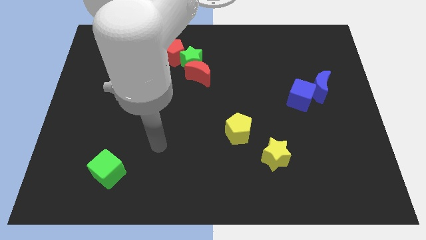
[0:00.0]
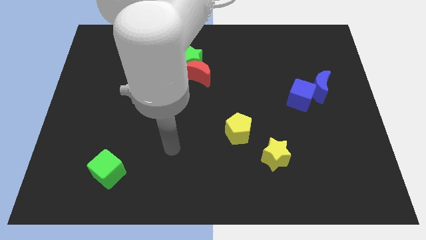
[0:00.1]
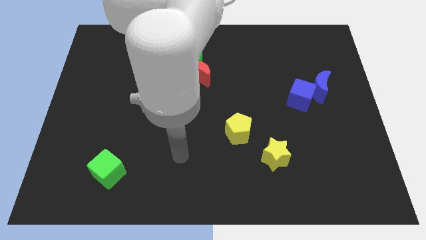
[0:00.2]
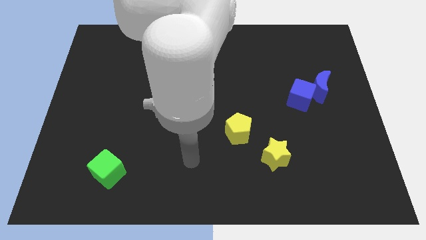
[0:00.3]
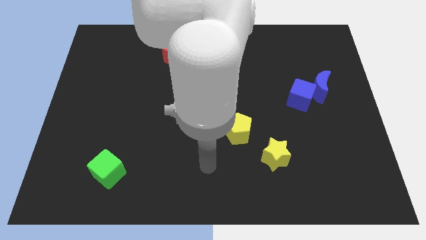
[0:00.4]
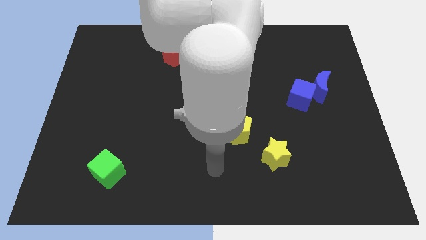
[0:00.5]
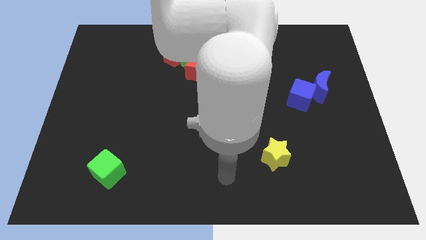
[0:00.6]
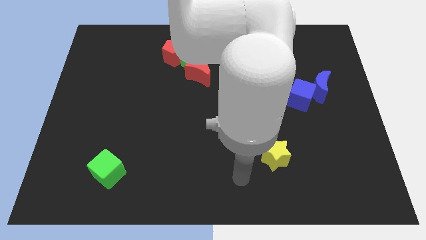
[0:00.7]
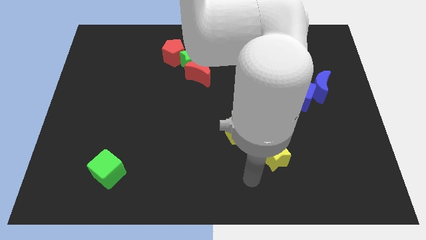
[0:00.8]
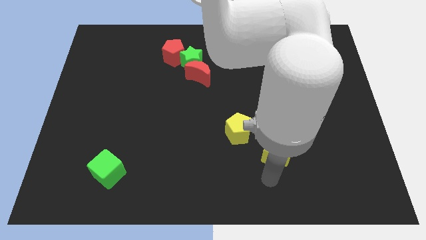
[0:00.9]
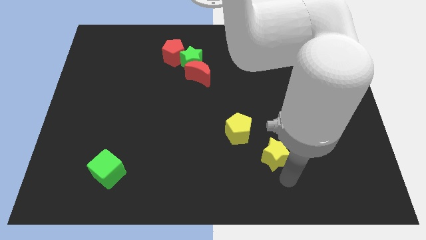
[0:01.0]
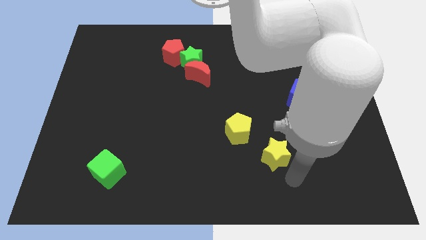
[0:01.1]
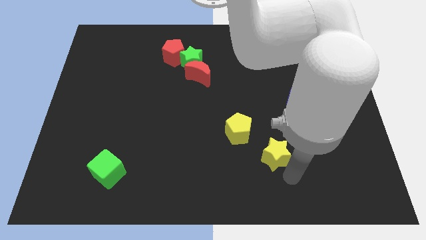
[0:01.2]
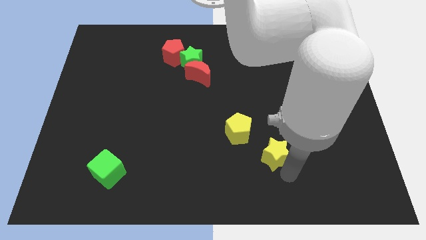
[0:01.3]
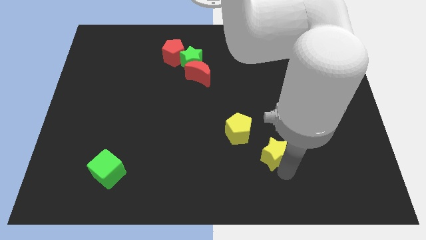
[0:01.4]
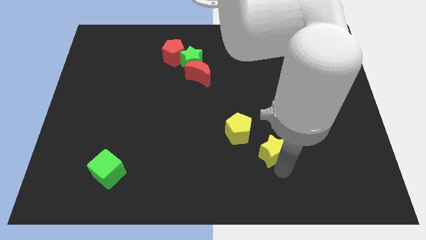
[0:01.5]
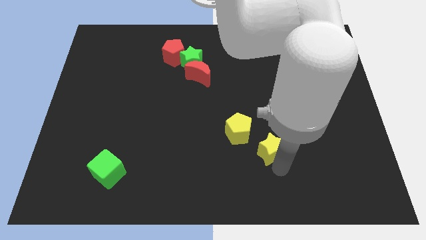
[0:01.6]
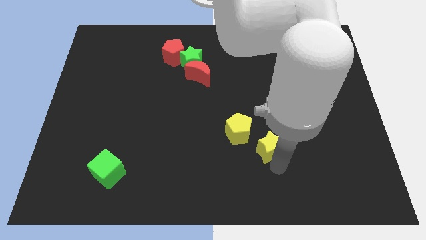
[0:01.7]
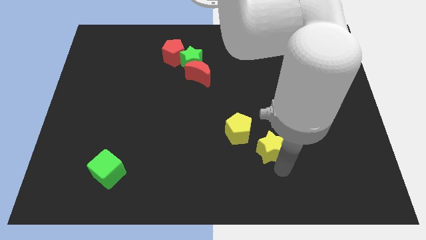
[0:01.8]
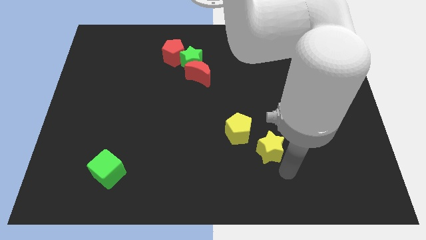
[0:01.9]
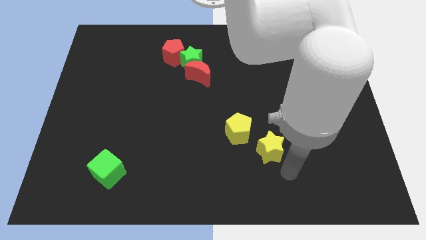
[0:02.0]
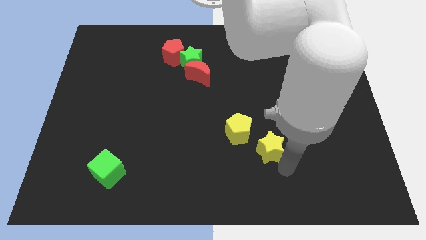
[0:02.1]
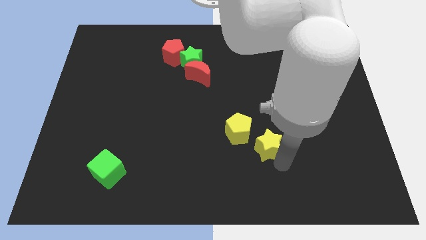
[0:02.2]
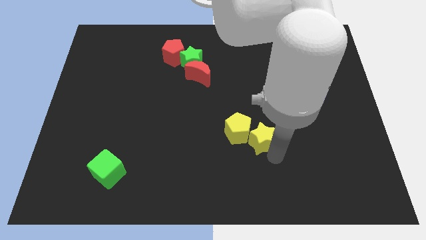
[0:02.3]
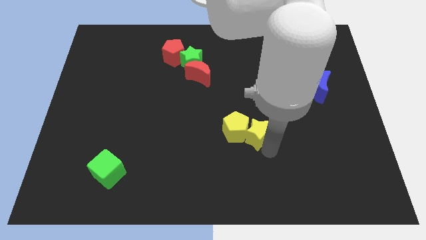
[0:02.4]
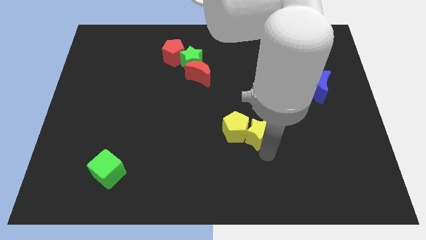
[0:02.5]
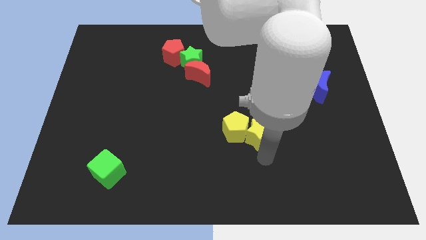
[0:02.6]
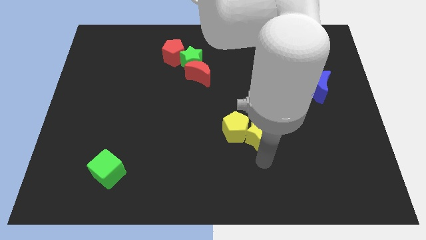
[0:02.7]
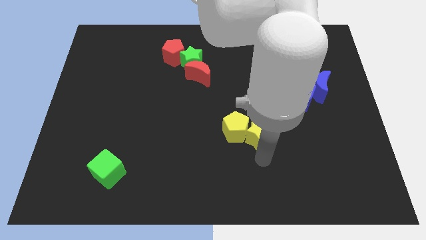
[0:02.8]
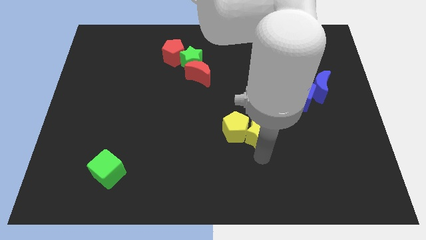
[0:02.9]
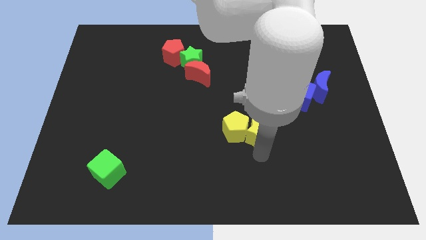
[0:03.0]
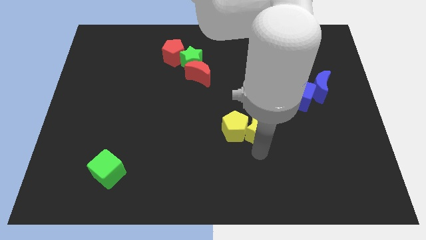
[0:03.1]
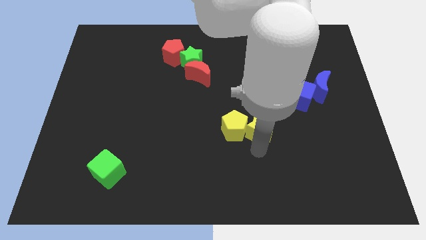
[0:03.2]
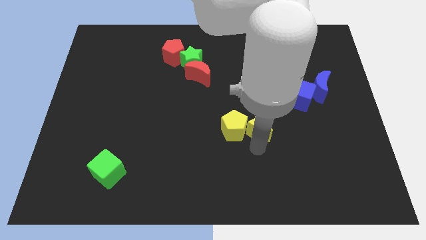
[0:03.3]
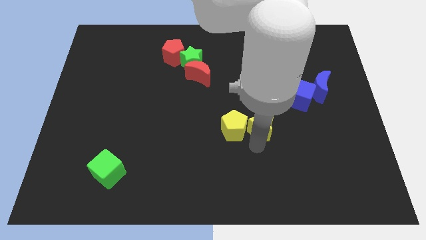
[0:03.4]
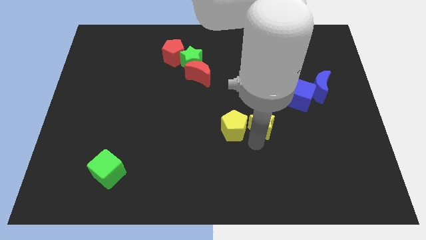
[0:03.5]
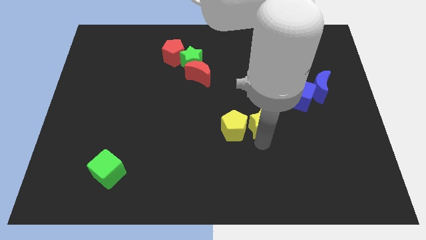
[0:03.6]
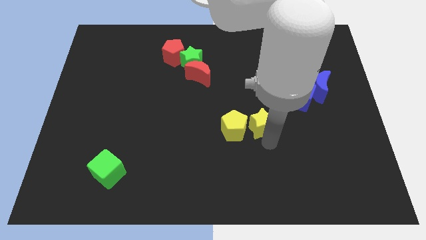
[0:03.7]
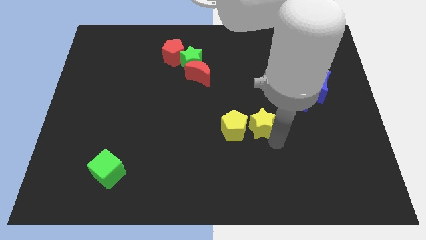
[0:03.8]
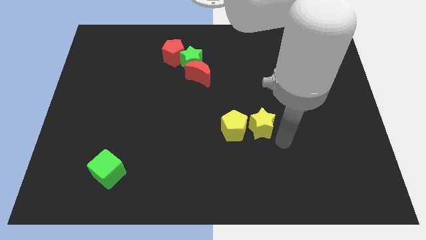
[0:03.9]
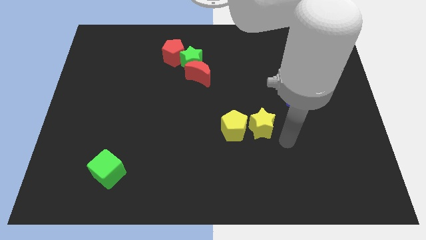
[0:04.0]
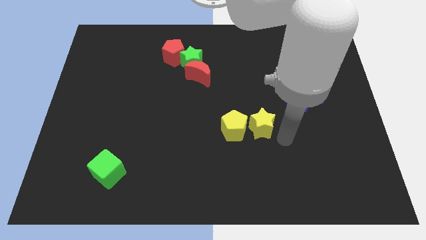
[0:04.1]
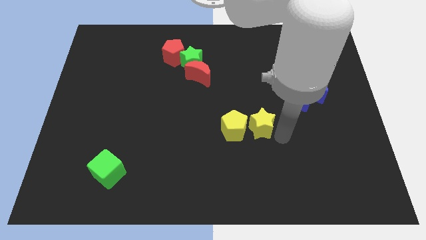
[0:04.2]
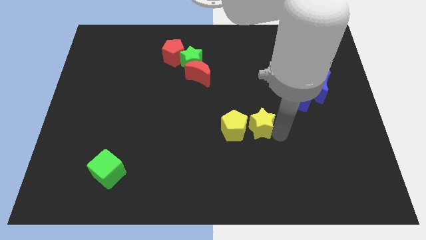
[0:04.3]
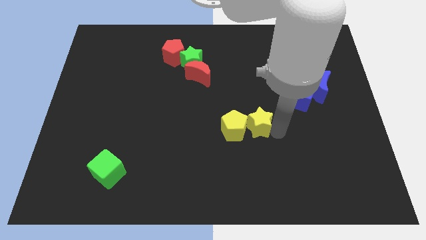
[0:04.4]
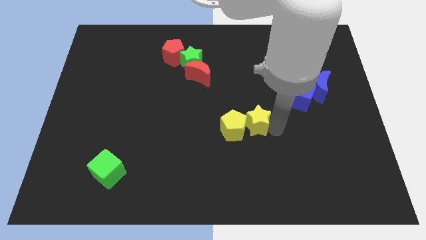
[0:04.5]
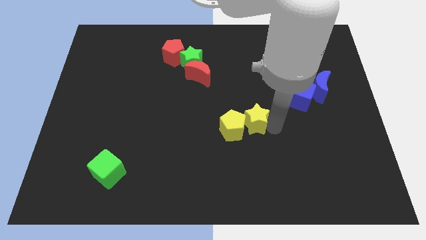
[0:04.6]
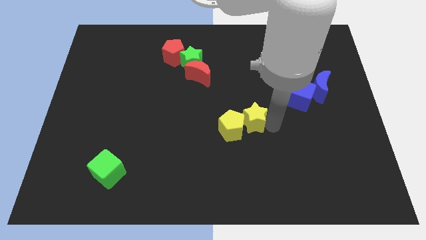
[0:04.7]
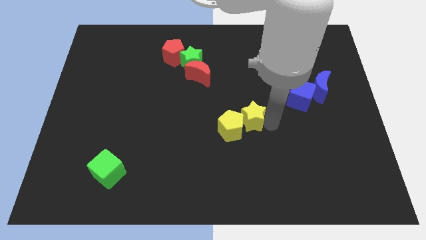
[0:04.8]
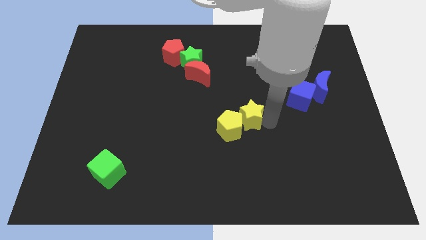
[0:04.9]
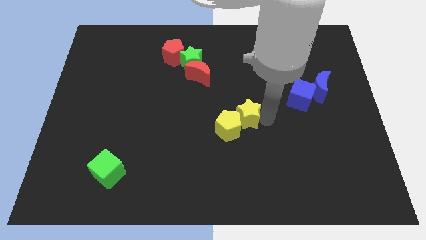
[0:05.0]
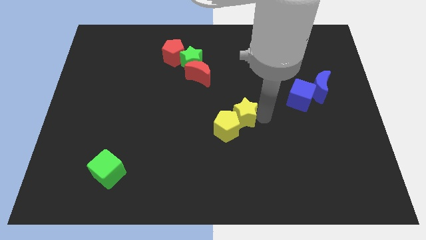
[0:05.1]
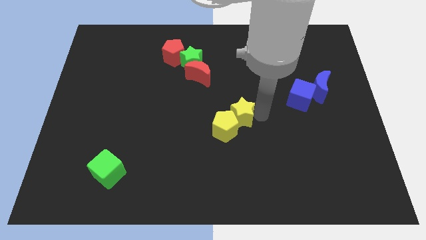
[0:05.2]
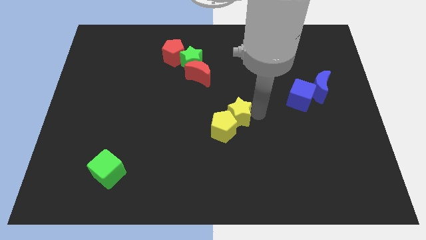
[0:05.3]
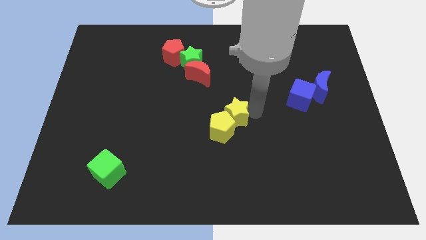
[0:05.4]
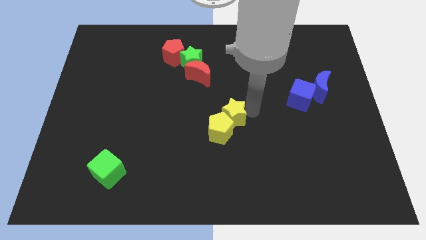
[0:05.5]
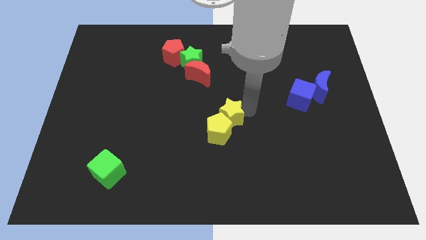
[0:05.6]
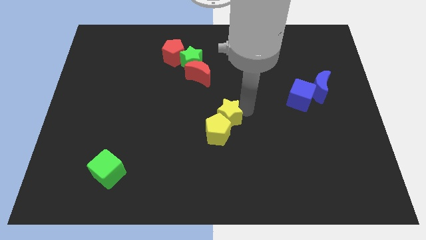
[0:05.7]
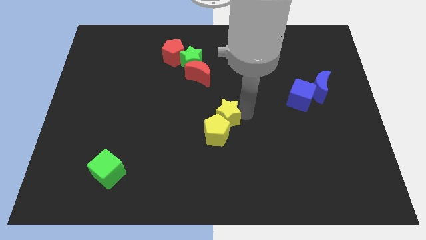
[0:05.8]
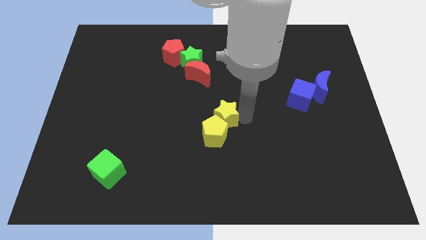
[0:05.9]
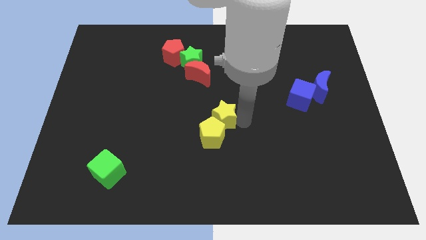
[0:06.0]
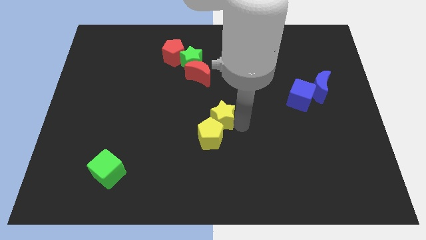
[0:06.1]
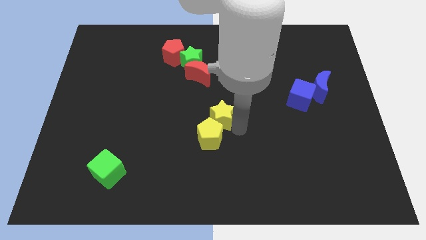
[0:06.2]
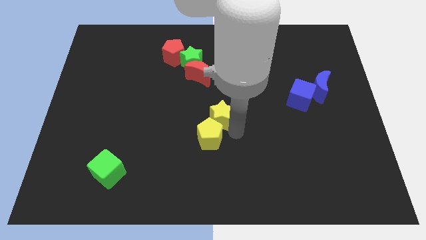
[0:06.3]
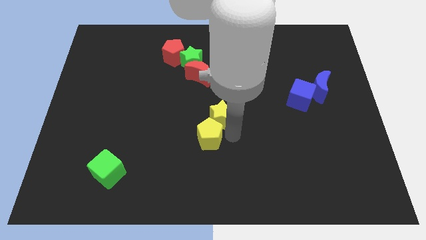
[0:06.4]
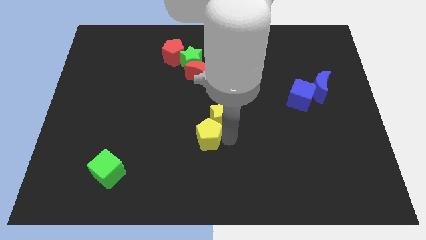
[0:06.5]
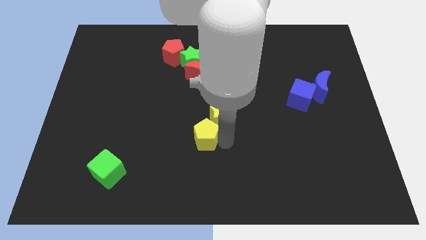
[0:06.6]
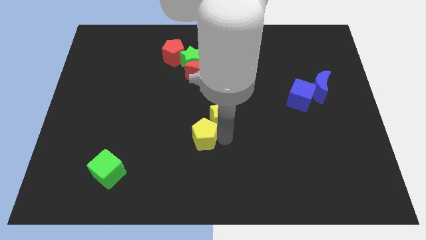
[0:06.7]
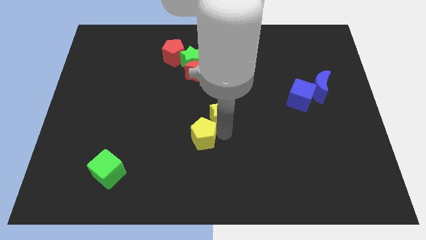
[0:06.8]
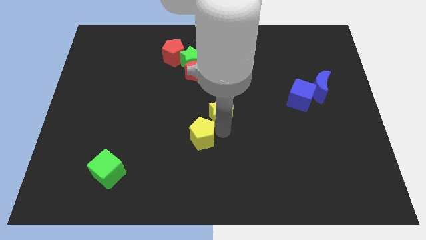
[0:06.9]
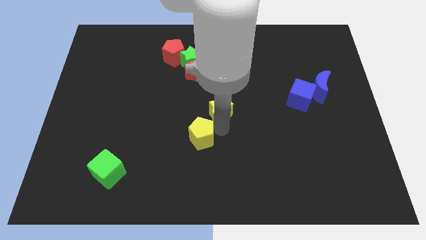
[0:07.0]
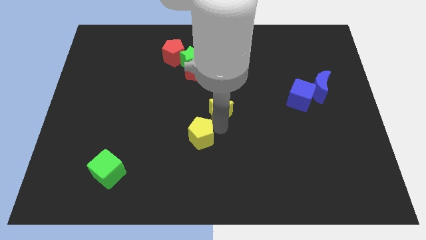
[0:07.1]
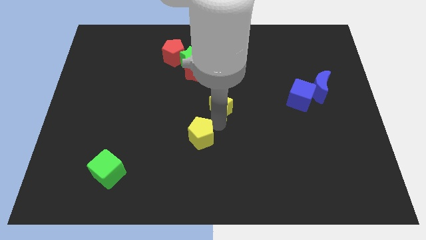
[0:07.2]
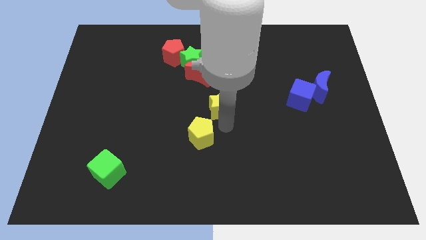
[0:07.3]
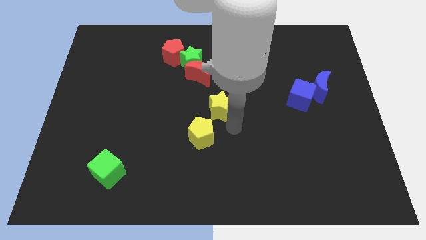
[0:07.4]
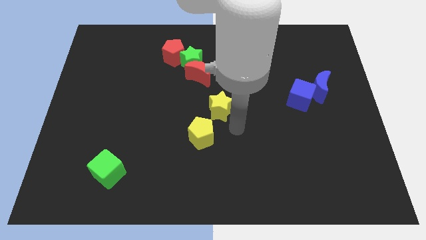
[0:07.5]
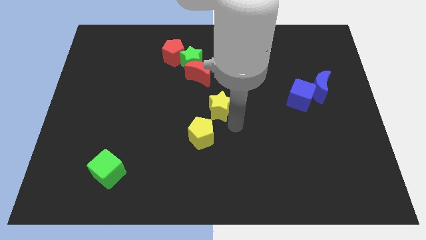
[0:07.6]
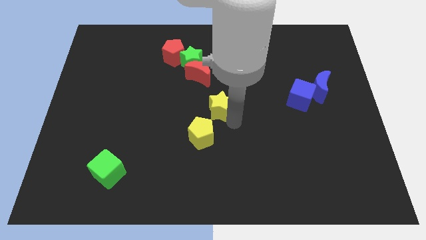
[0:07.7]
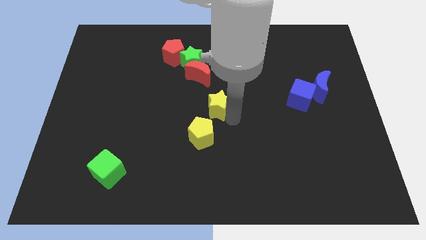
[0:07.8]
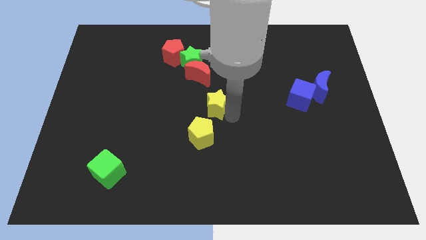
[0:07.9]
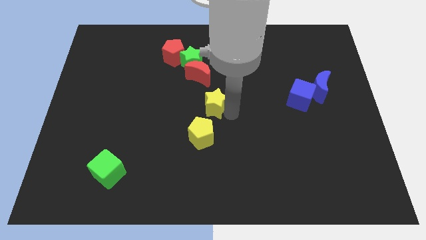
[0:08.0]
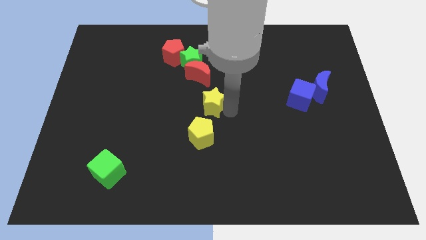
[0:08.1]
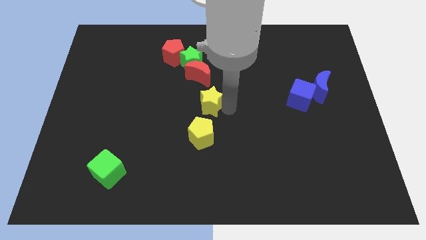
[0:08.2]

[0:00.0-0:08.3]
push the yellow star upwards and left
